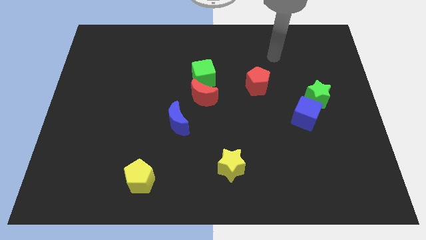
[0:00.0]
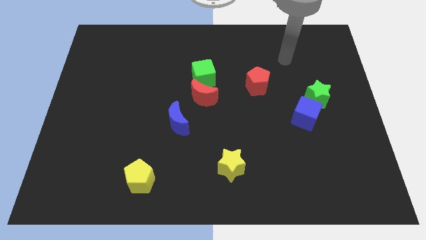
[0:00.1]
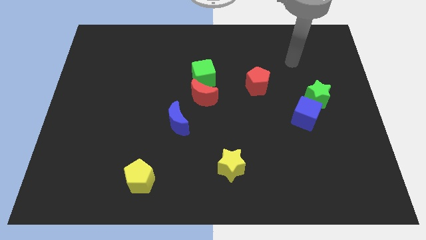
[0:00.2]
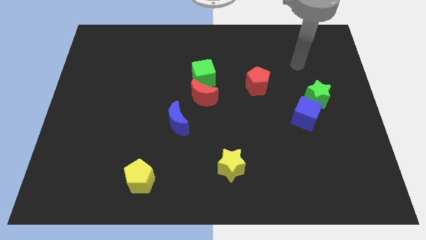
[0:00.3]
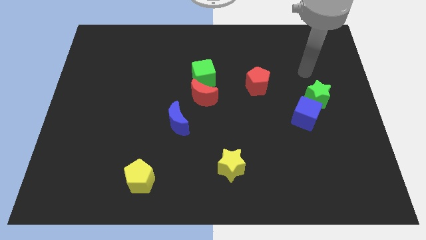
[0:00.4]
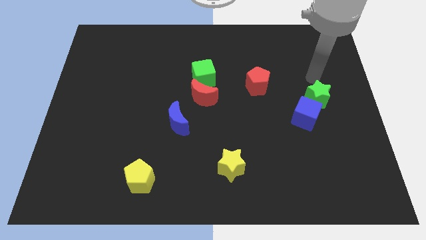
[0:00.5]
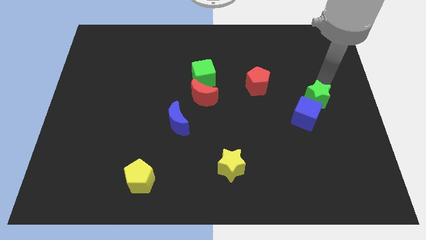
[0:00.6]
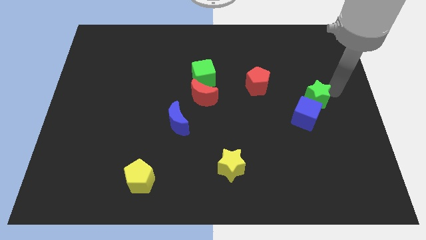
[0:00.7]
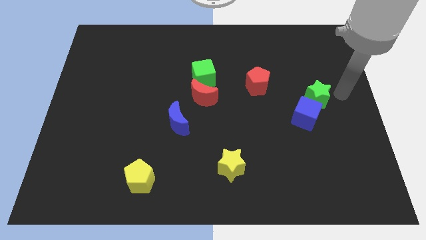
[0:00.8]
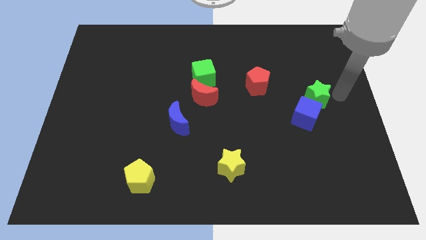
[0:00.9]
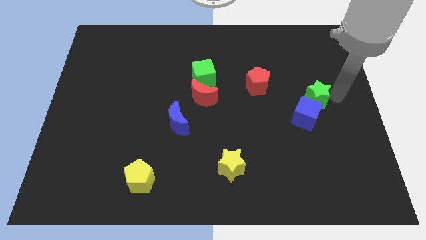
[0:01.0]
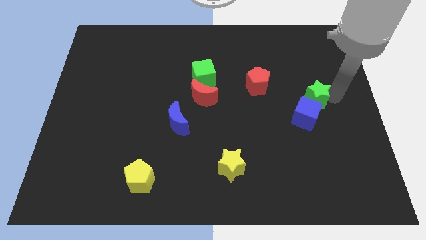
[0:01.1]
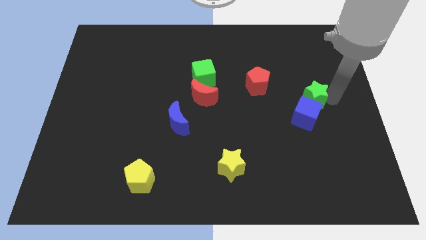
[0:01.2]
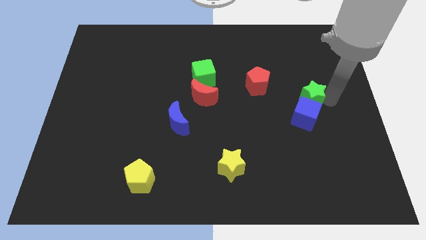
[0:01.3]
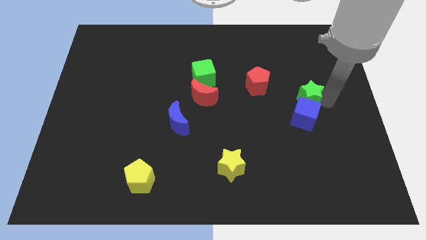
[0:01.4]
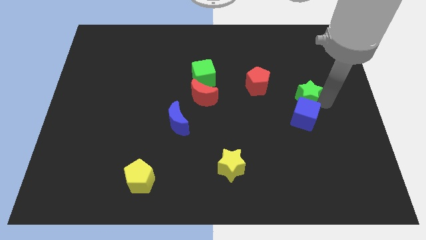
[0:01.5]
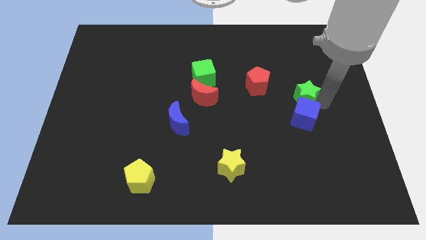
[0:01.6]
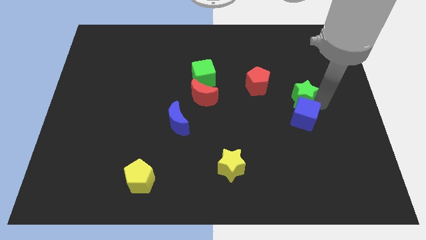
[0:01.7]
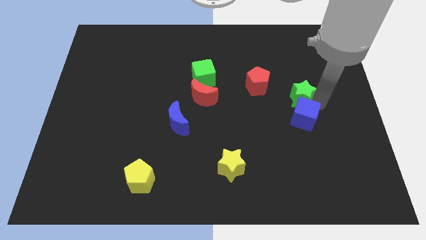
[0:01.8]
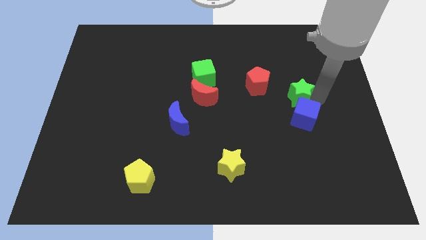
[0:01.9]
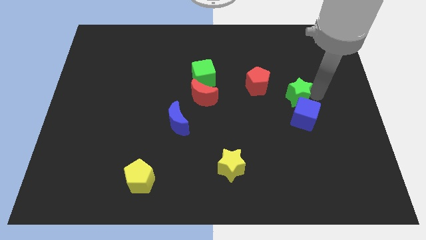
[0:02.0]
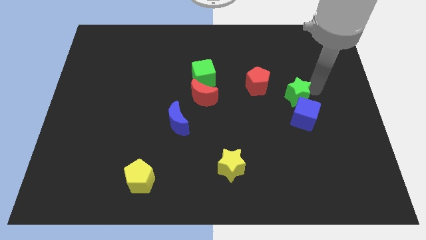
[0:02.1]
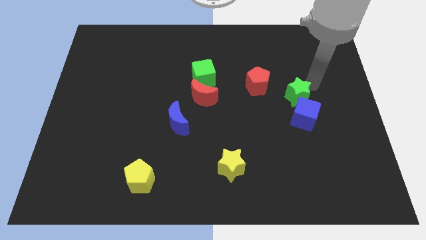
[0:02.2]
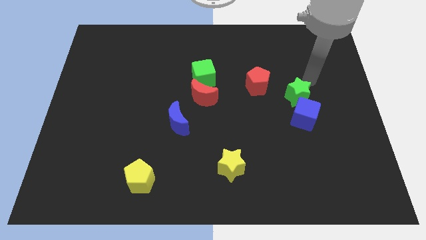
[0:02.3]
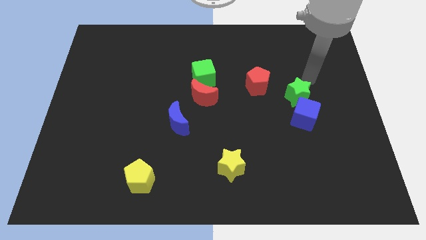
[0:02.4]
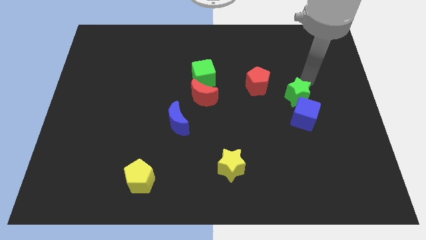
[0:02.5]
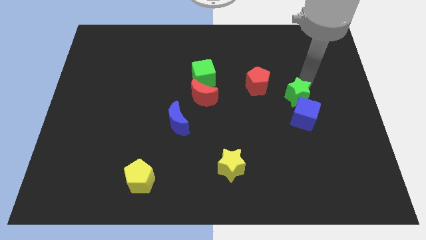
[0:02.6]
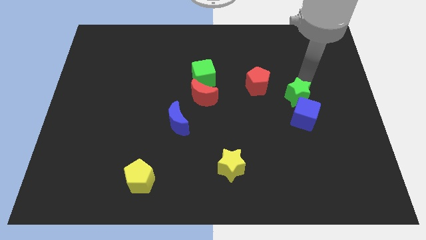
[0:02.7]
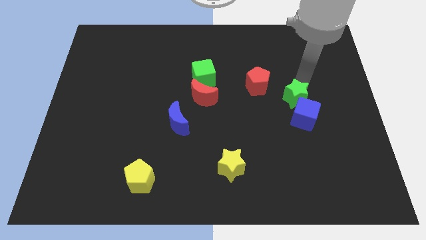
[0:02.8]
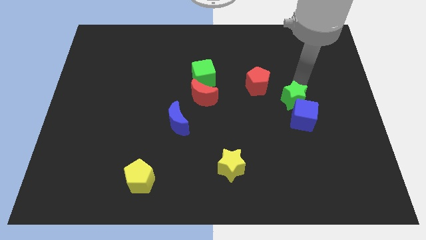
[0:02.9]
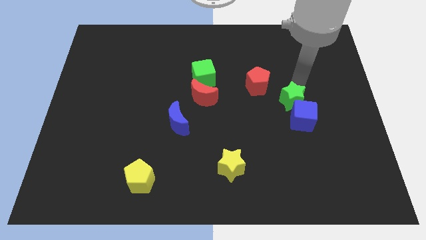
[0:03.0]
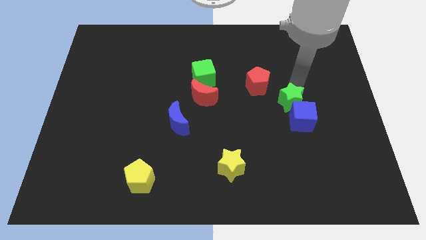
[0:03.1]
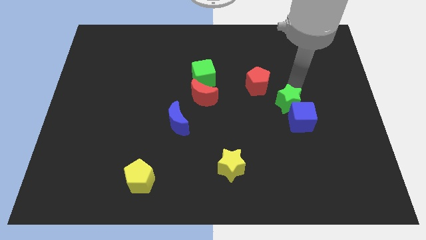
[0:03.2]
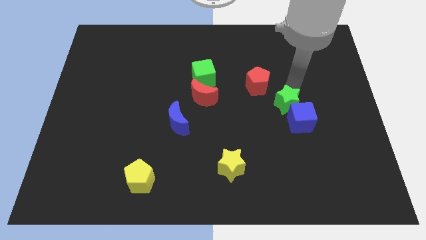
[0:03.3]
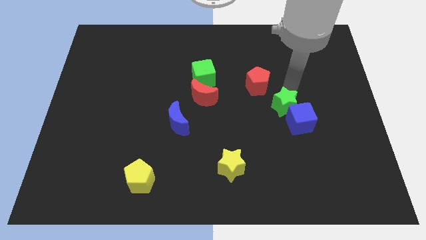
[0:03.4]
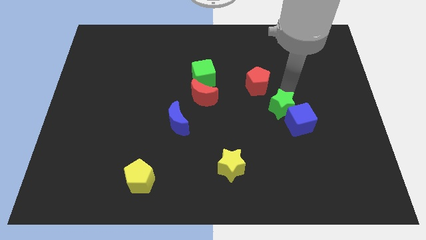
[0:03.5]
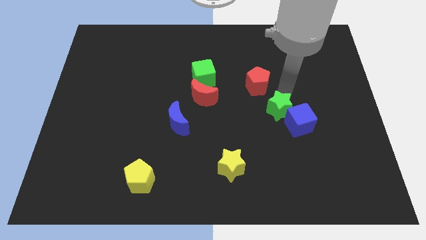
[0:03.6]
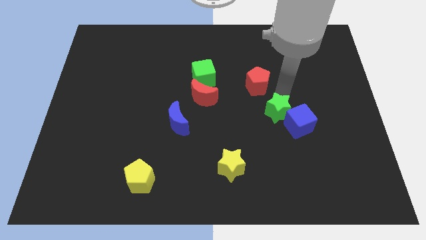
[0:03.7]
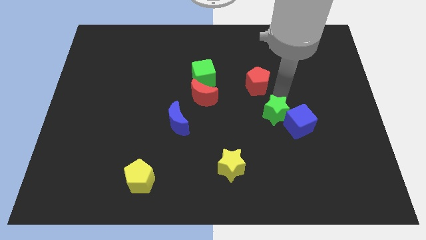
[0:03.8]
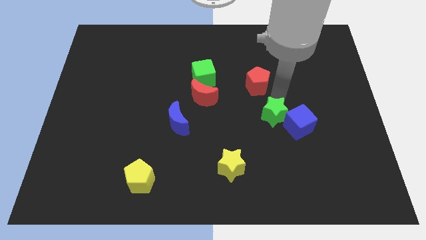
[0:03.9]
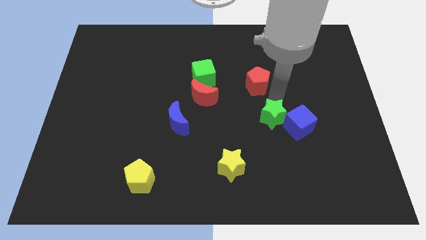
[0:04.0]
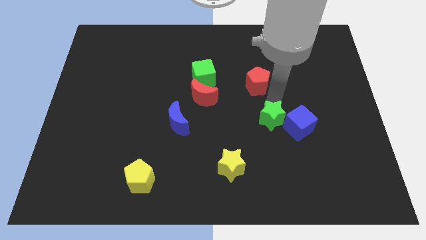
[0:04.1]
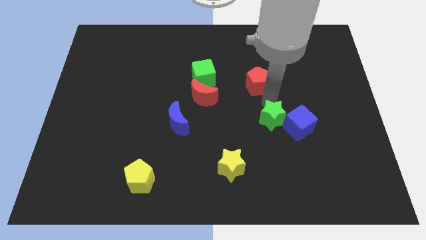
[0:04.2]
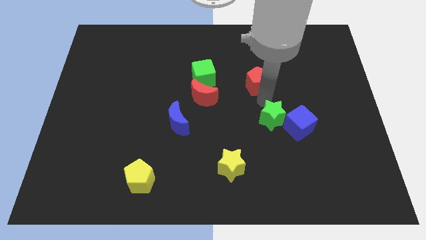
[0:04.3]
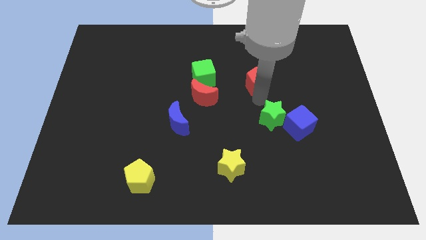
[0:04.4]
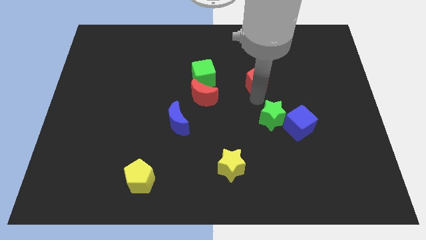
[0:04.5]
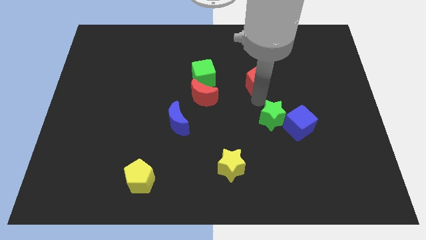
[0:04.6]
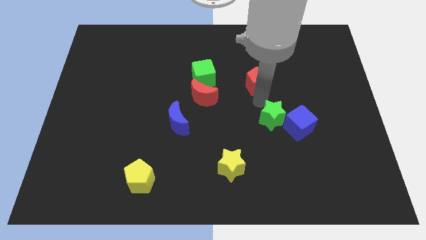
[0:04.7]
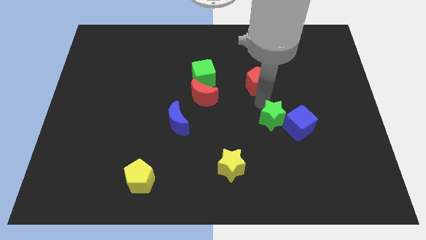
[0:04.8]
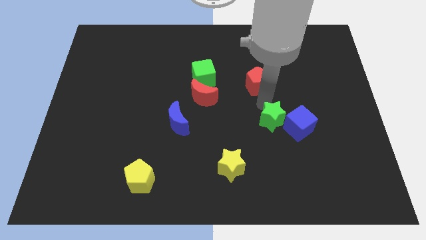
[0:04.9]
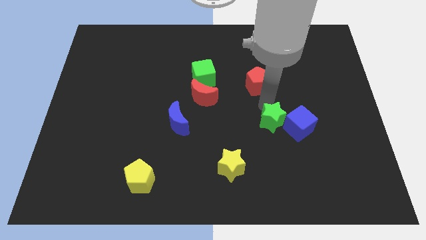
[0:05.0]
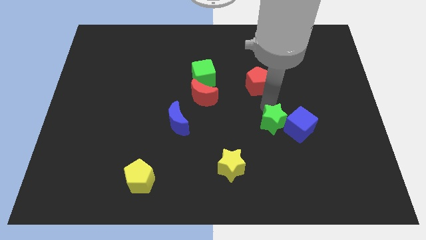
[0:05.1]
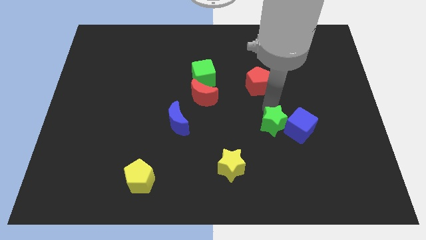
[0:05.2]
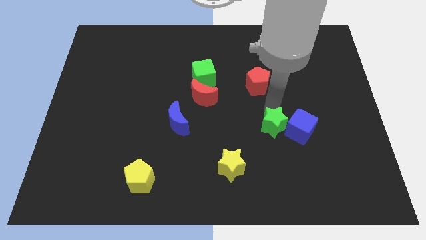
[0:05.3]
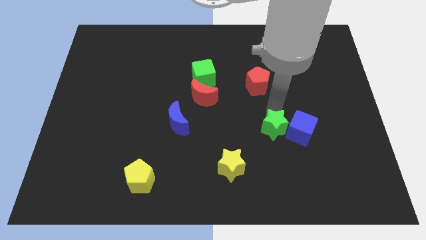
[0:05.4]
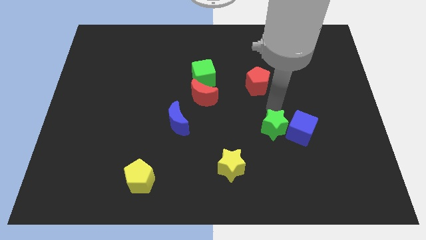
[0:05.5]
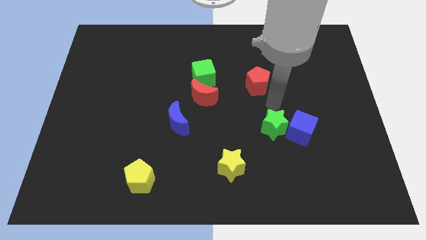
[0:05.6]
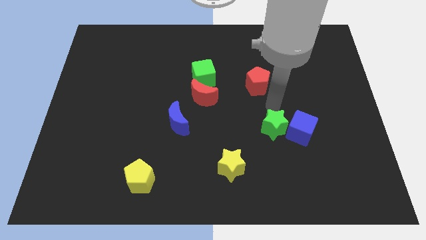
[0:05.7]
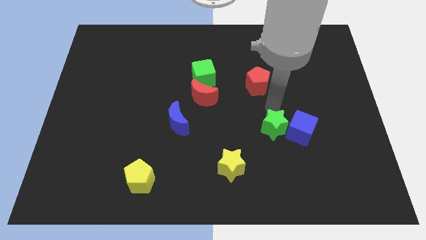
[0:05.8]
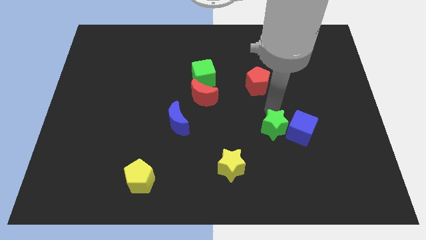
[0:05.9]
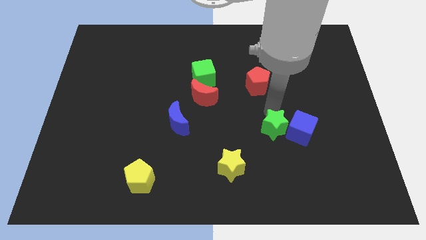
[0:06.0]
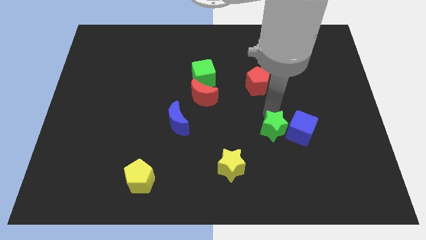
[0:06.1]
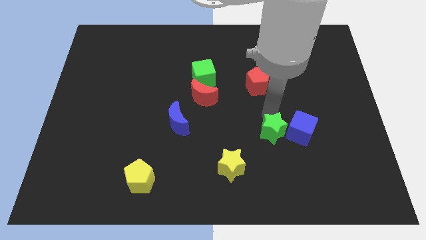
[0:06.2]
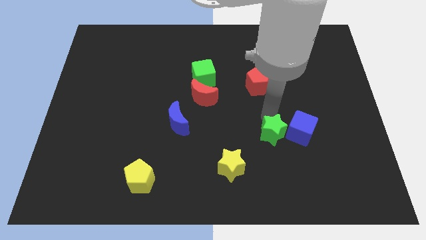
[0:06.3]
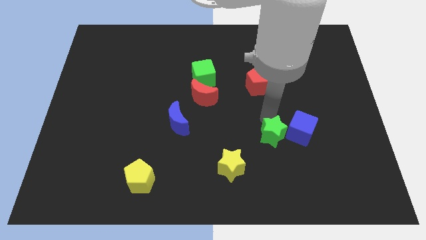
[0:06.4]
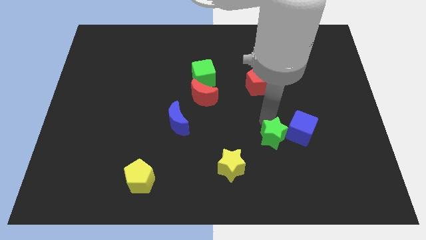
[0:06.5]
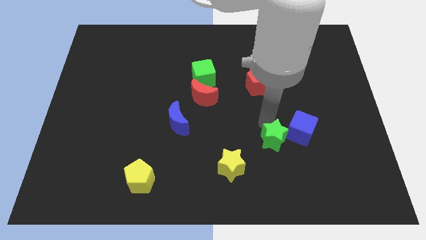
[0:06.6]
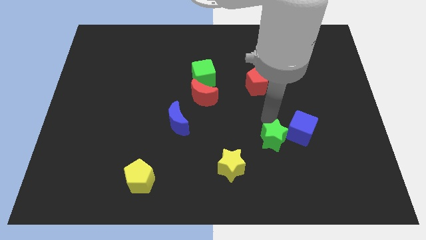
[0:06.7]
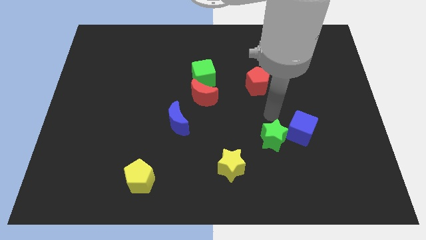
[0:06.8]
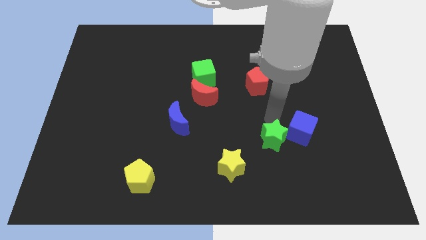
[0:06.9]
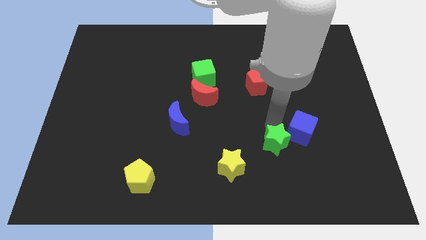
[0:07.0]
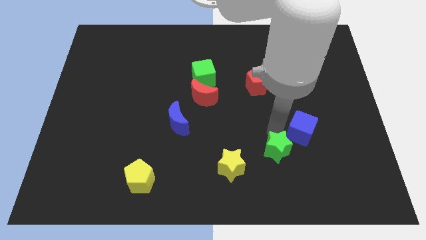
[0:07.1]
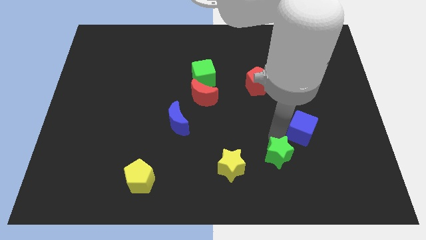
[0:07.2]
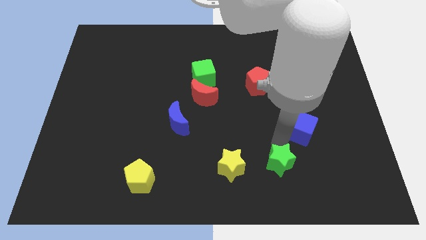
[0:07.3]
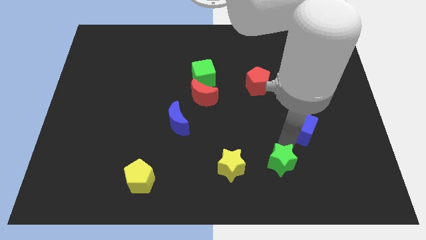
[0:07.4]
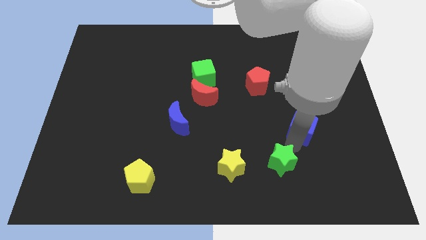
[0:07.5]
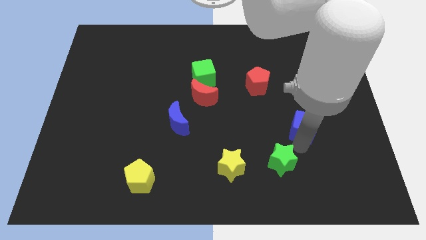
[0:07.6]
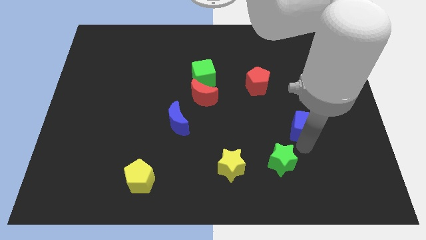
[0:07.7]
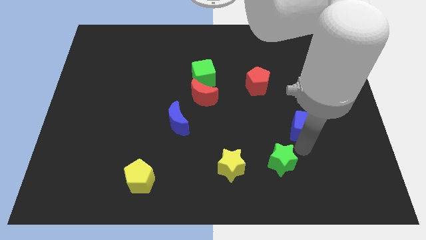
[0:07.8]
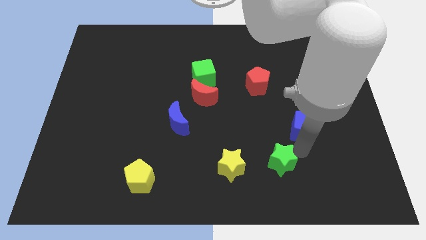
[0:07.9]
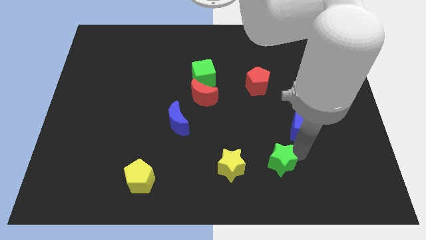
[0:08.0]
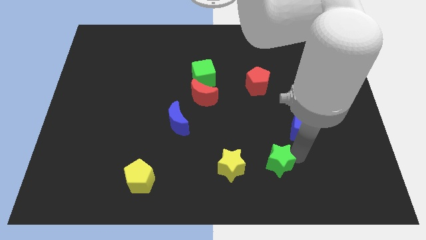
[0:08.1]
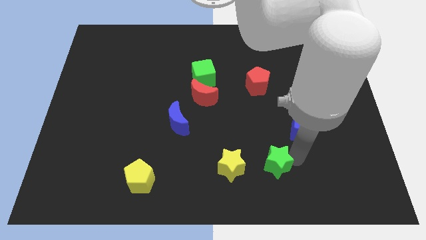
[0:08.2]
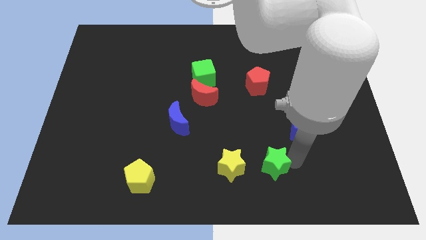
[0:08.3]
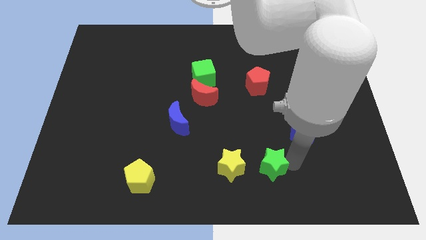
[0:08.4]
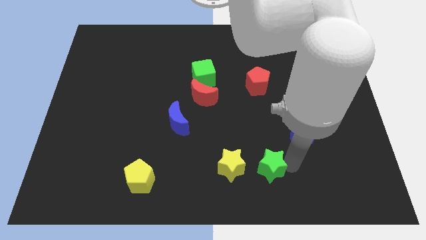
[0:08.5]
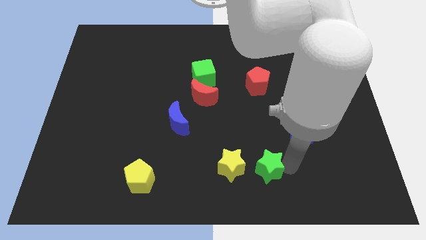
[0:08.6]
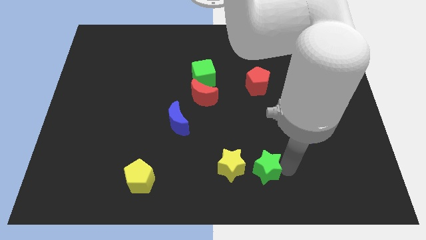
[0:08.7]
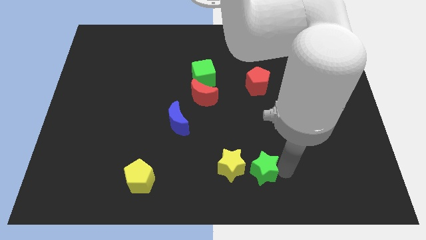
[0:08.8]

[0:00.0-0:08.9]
slide the green star to the bottom
